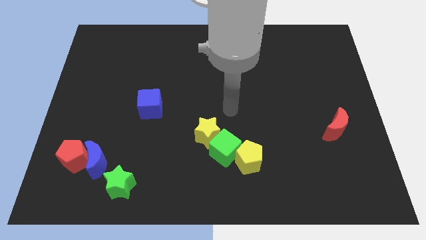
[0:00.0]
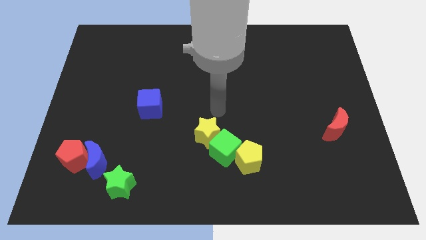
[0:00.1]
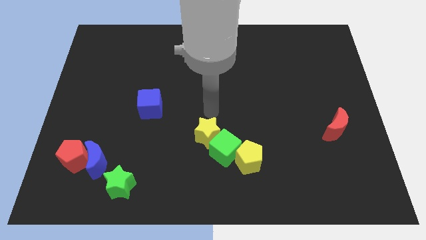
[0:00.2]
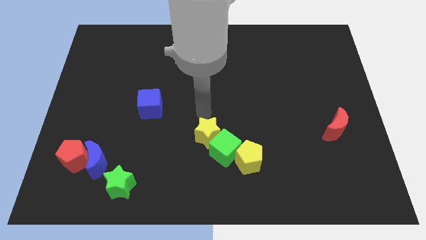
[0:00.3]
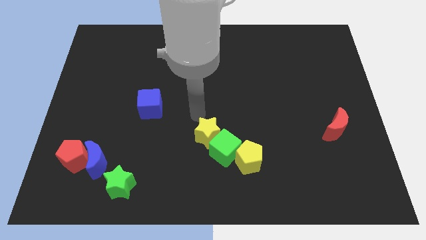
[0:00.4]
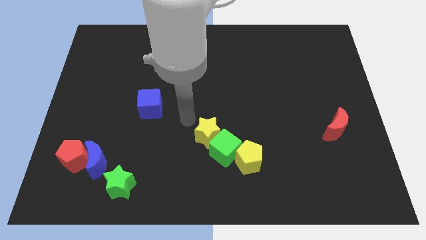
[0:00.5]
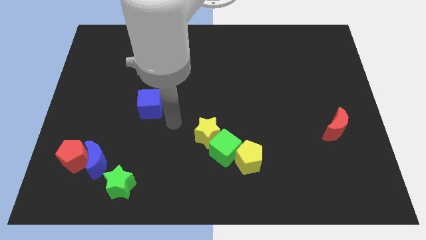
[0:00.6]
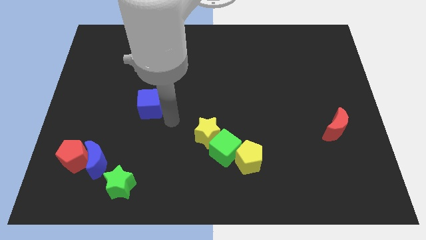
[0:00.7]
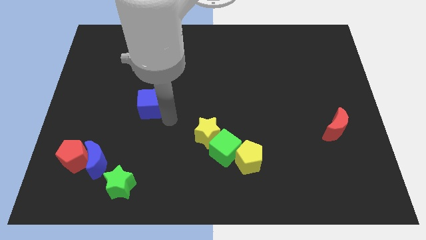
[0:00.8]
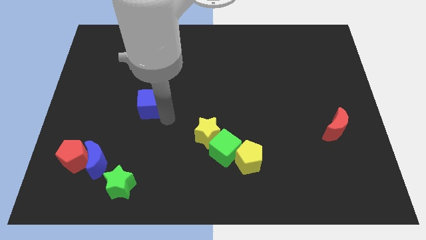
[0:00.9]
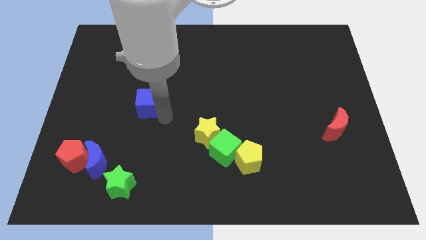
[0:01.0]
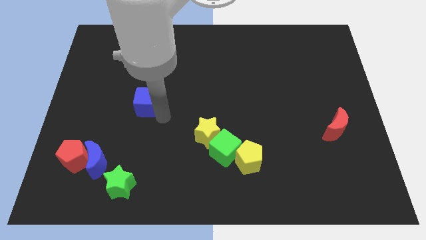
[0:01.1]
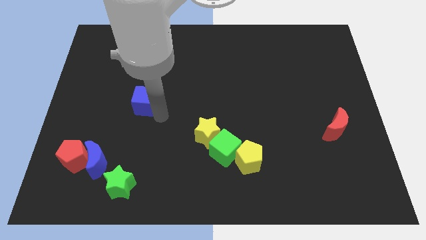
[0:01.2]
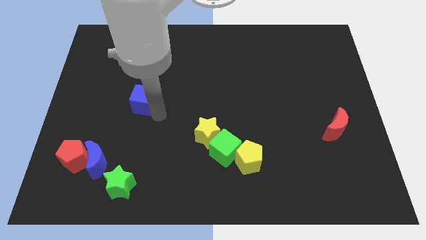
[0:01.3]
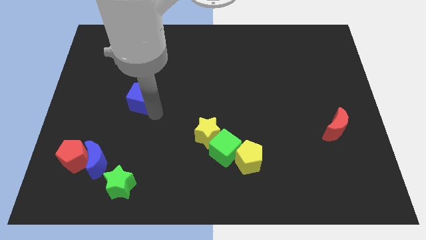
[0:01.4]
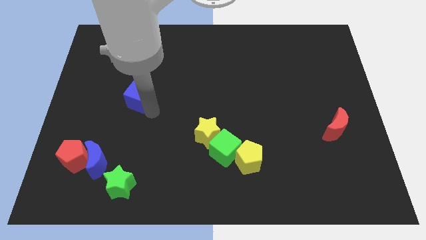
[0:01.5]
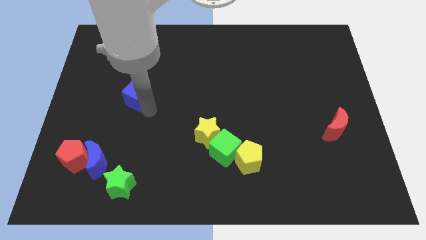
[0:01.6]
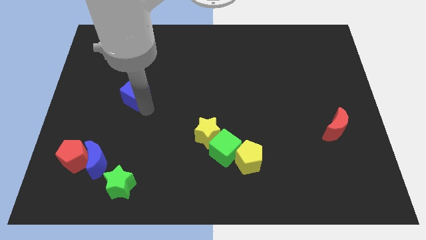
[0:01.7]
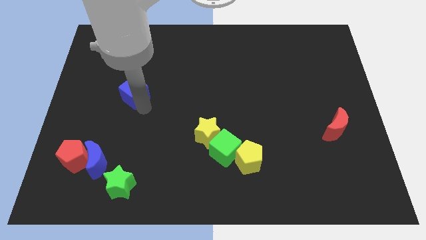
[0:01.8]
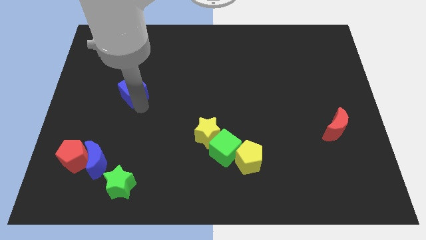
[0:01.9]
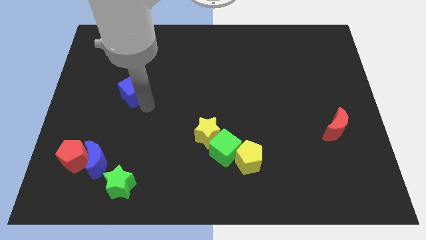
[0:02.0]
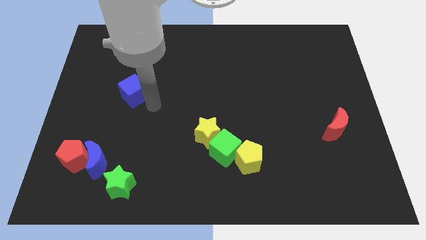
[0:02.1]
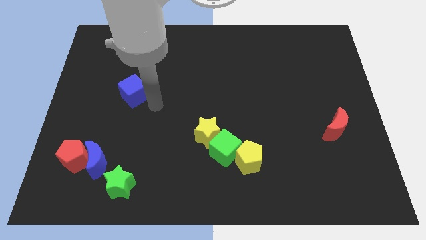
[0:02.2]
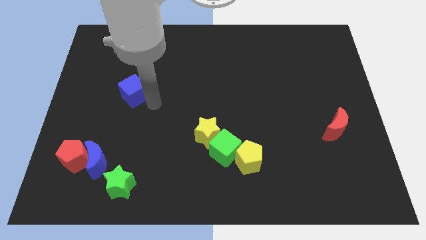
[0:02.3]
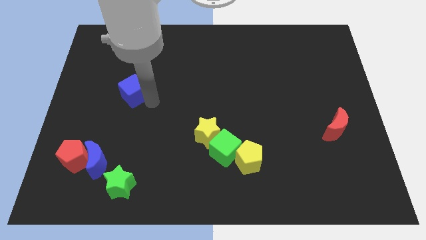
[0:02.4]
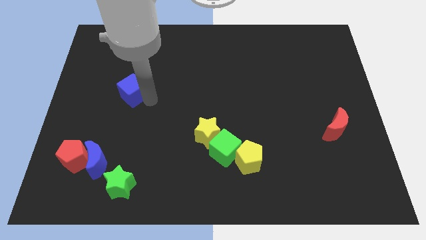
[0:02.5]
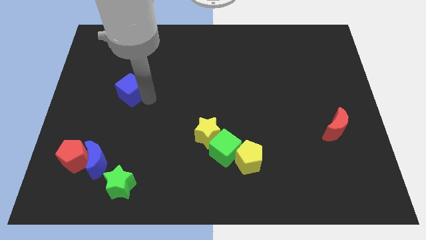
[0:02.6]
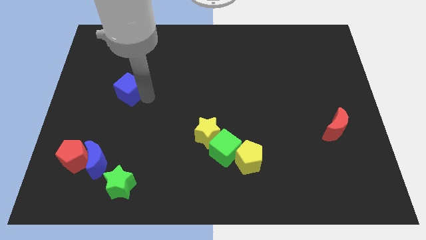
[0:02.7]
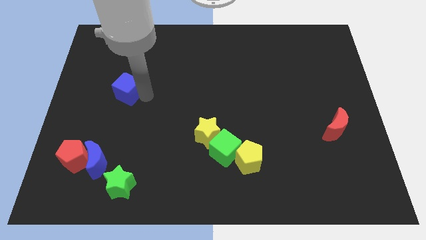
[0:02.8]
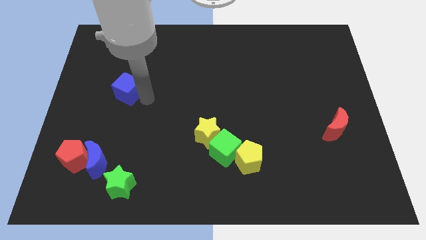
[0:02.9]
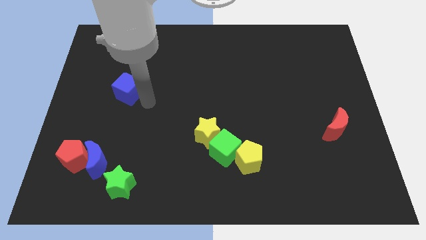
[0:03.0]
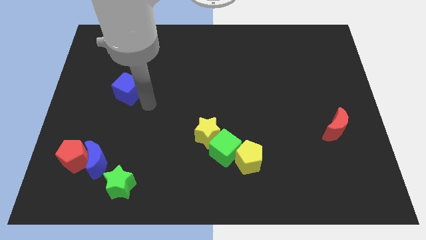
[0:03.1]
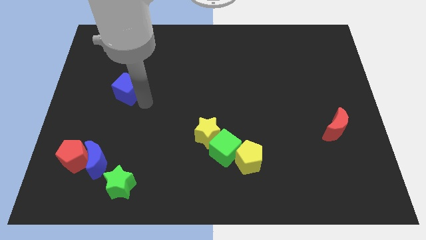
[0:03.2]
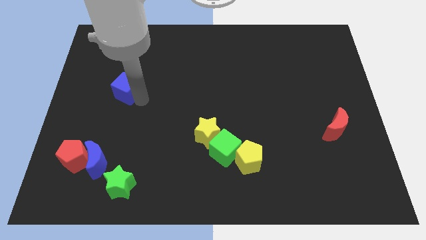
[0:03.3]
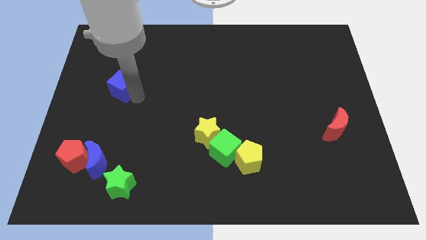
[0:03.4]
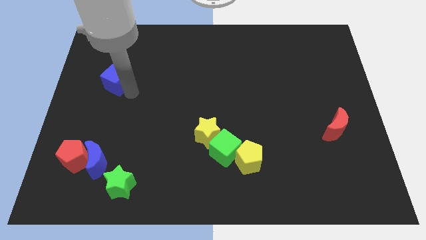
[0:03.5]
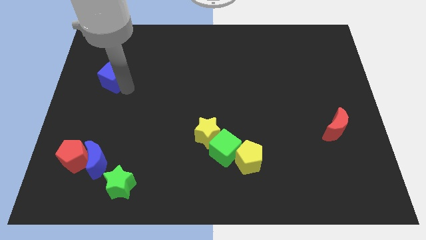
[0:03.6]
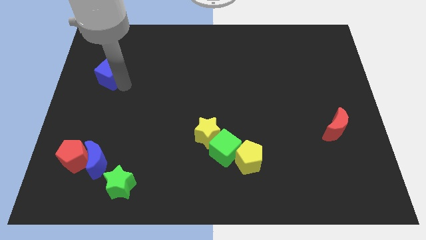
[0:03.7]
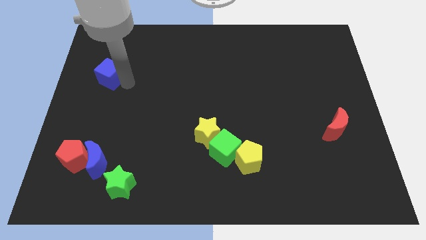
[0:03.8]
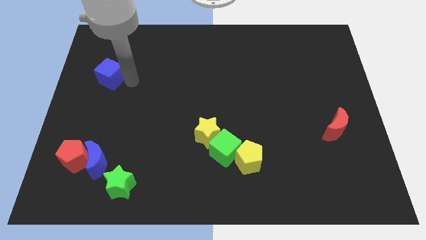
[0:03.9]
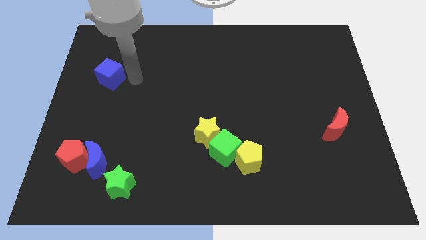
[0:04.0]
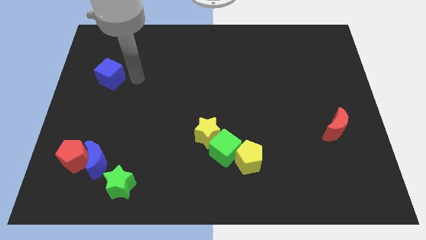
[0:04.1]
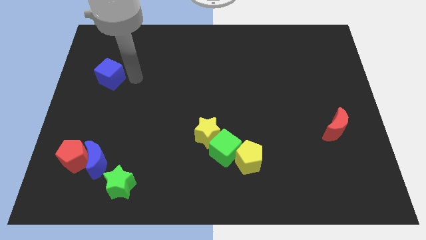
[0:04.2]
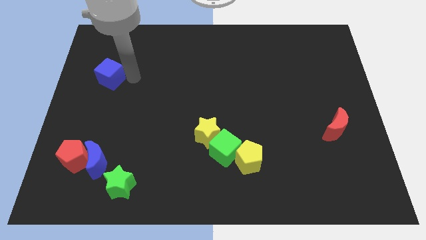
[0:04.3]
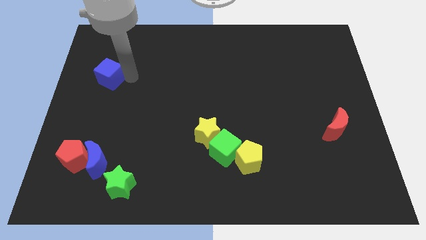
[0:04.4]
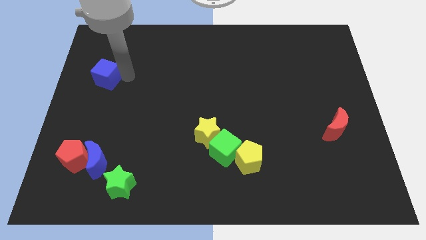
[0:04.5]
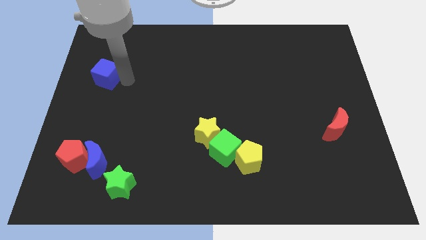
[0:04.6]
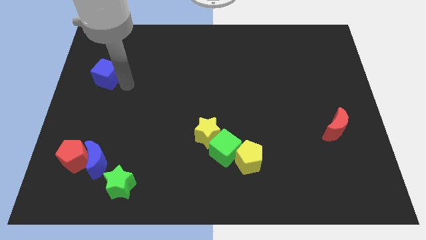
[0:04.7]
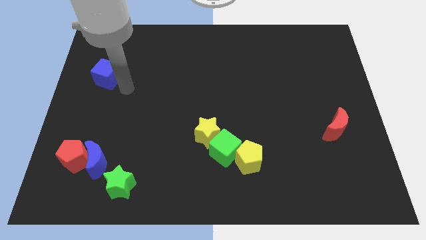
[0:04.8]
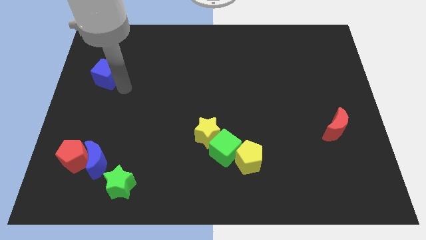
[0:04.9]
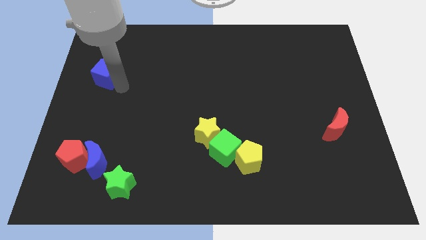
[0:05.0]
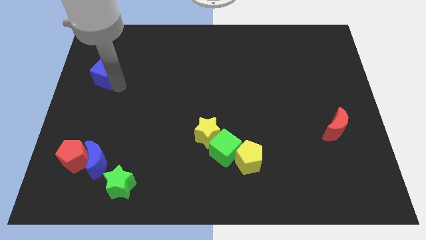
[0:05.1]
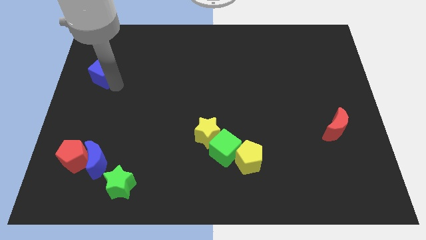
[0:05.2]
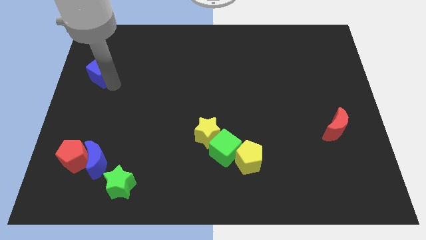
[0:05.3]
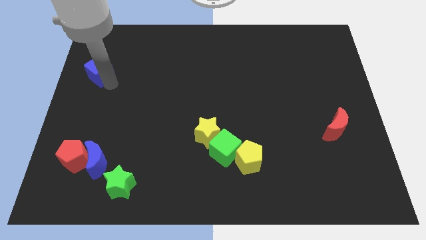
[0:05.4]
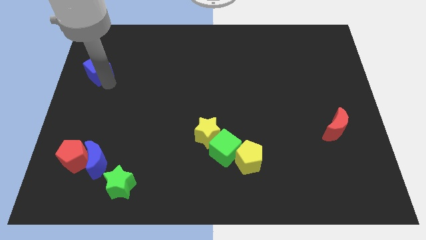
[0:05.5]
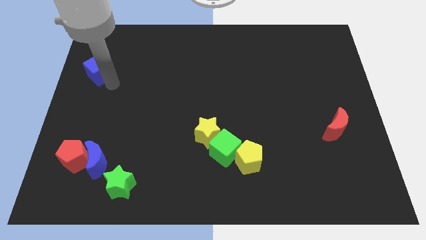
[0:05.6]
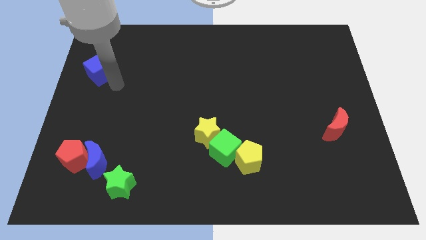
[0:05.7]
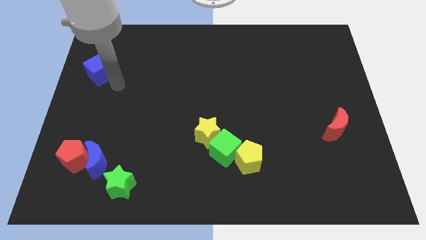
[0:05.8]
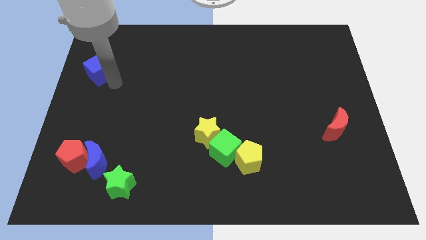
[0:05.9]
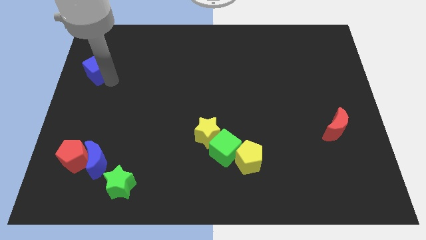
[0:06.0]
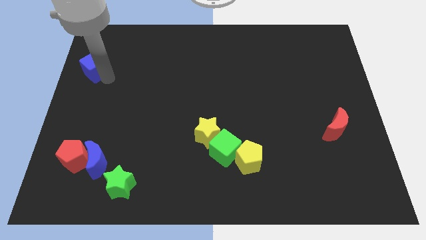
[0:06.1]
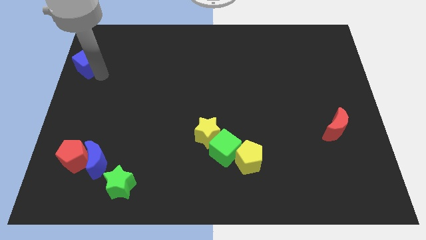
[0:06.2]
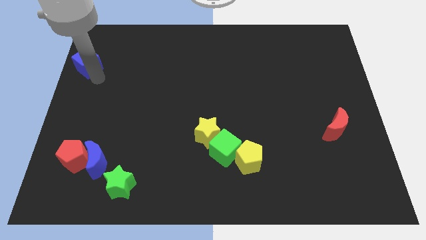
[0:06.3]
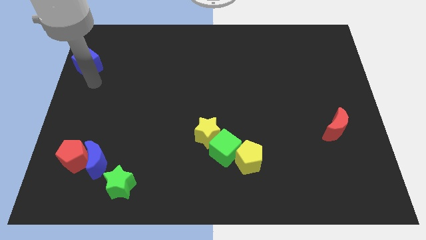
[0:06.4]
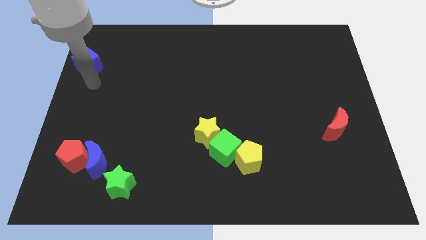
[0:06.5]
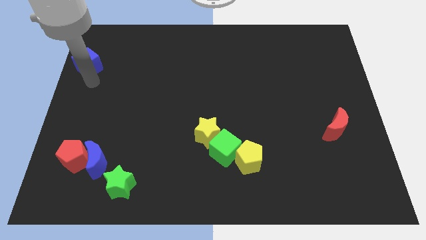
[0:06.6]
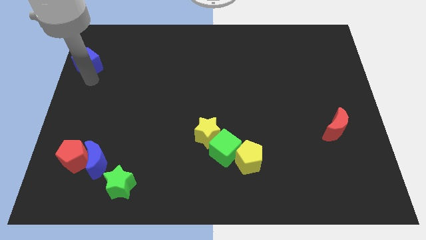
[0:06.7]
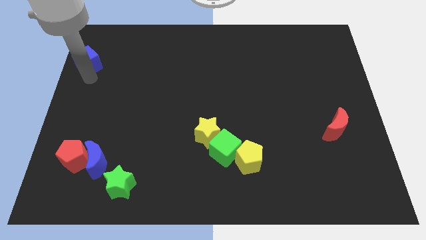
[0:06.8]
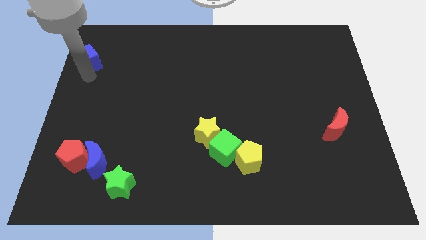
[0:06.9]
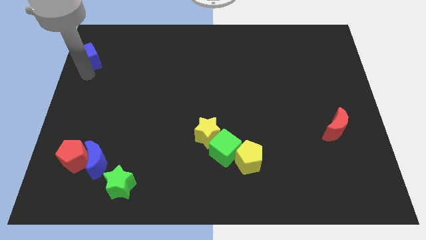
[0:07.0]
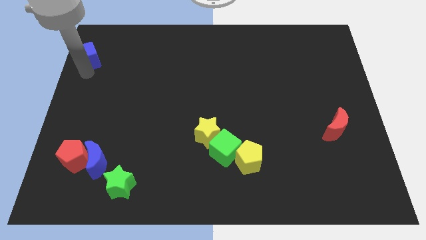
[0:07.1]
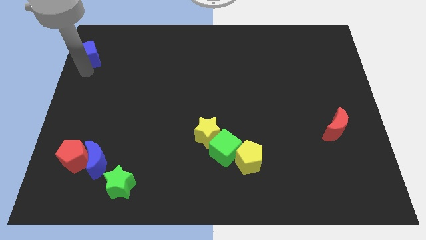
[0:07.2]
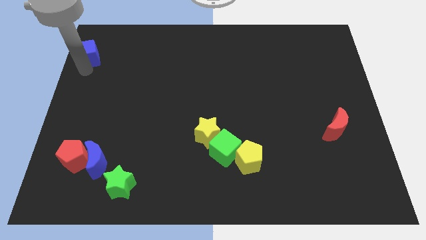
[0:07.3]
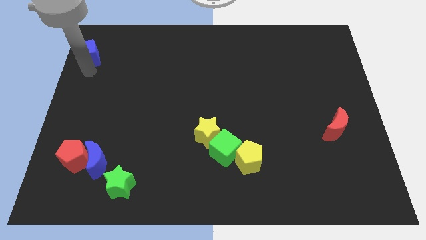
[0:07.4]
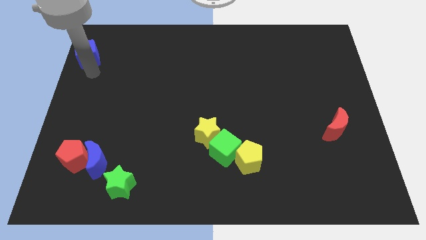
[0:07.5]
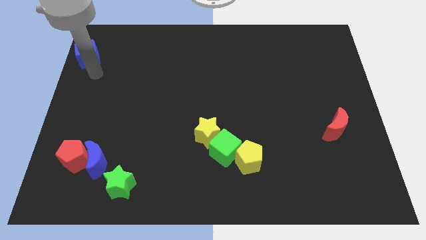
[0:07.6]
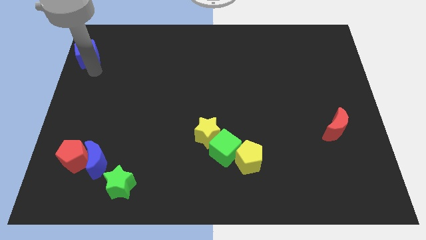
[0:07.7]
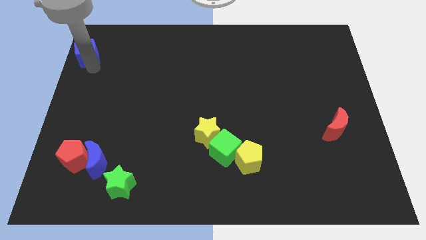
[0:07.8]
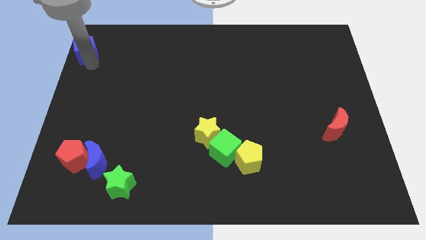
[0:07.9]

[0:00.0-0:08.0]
put the blue cube to the top left corner
